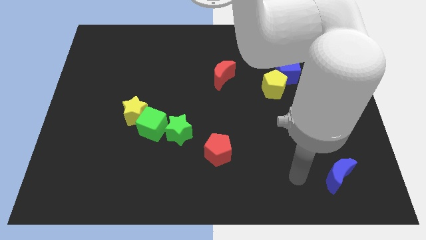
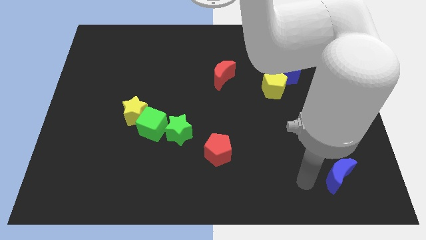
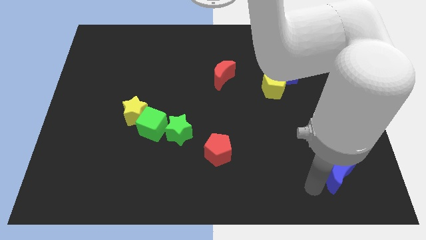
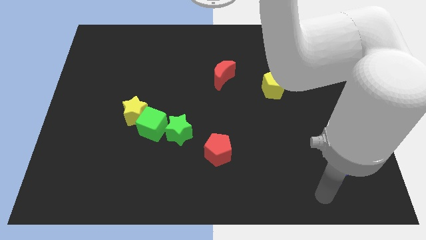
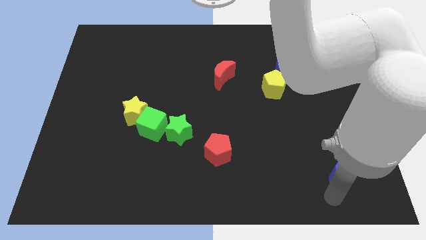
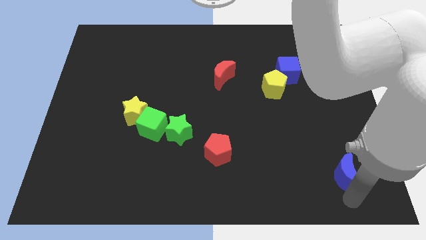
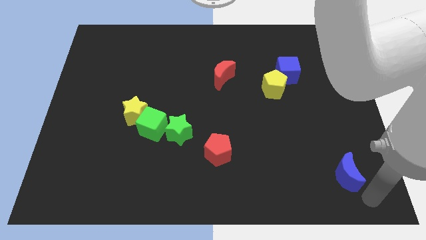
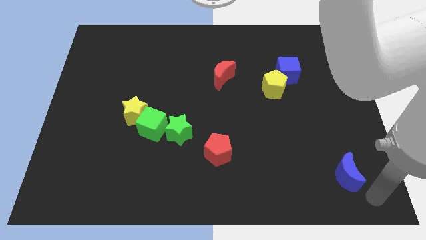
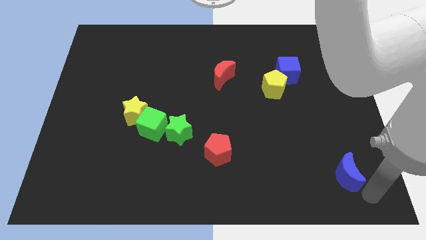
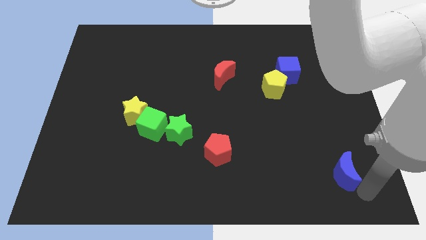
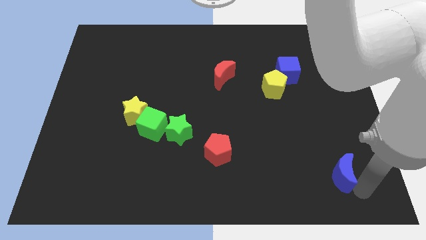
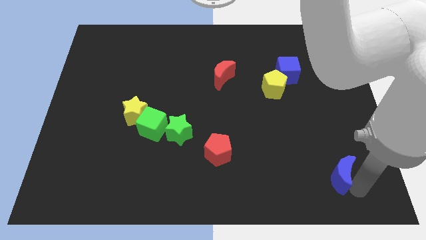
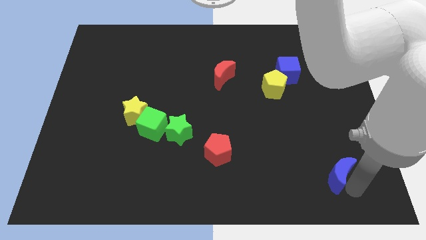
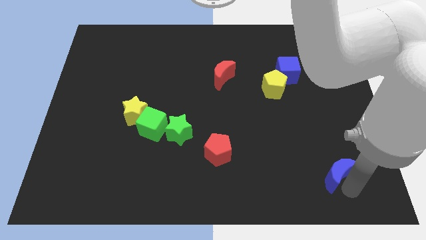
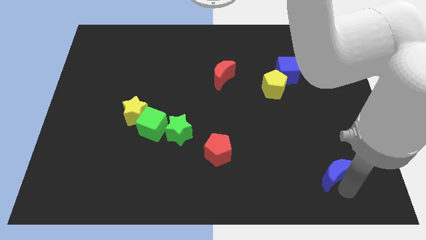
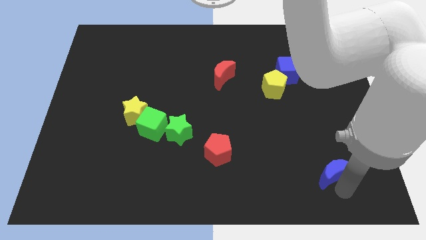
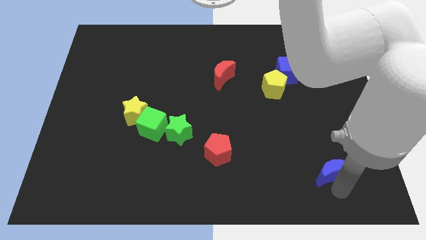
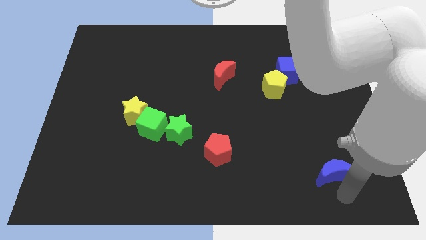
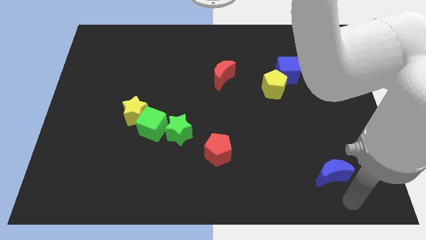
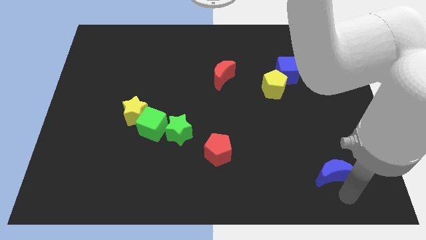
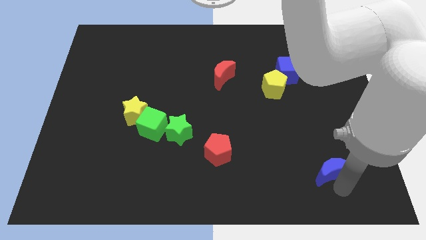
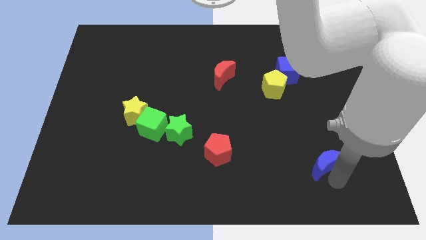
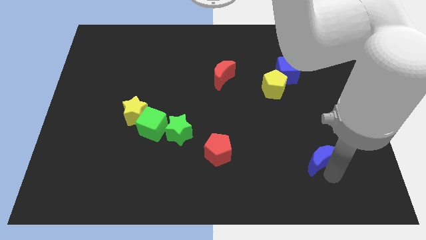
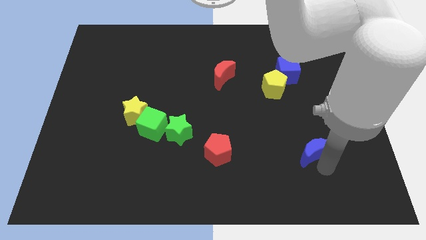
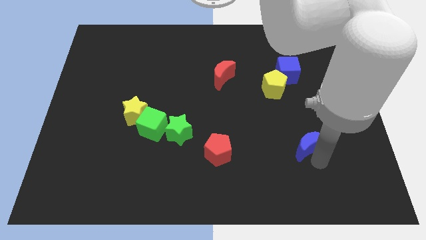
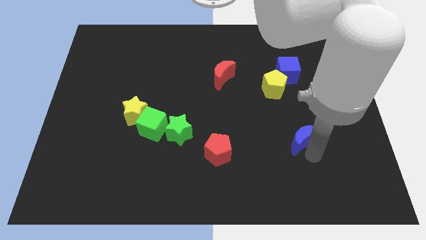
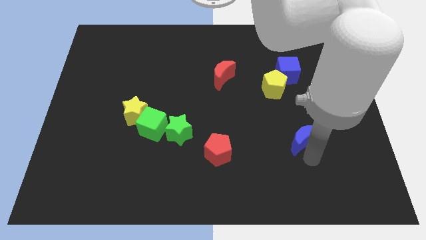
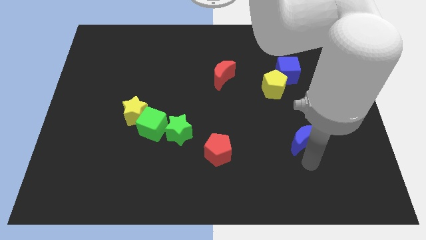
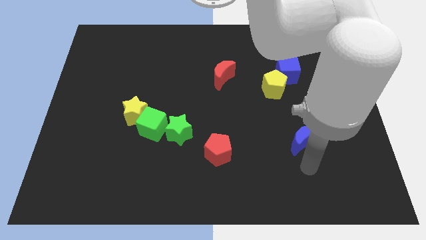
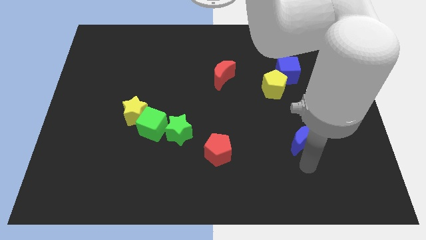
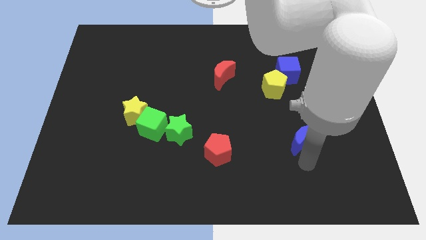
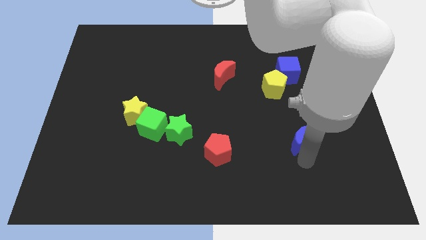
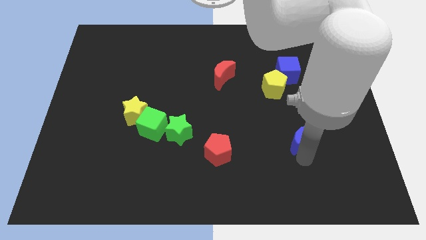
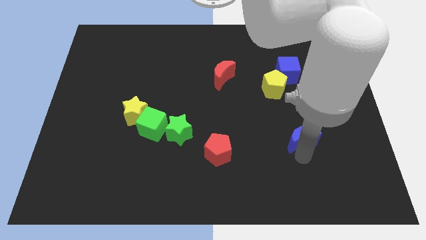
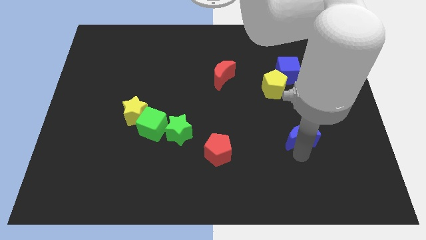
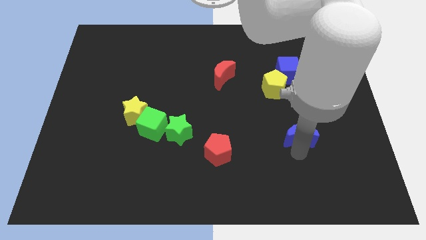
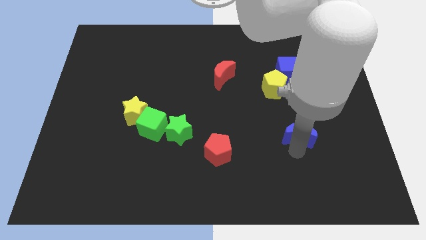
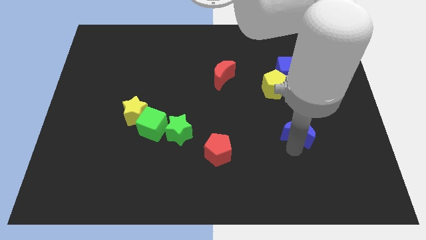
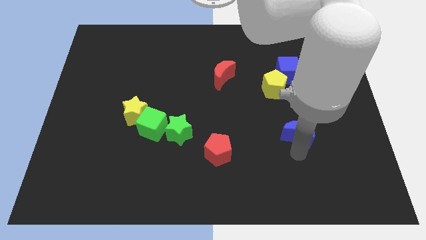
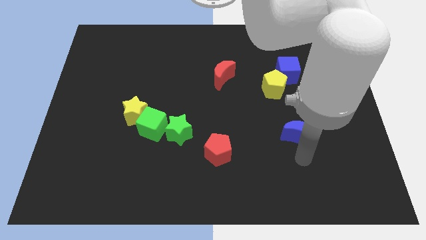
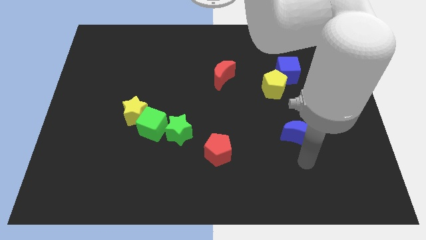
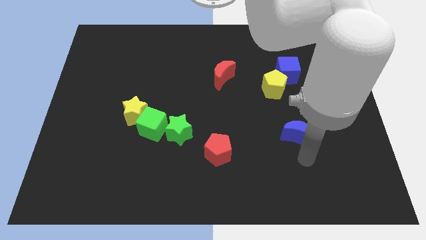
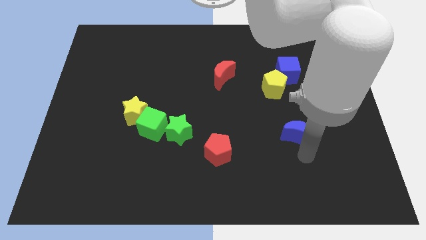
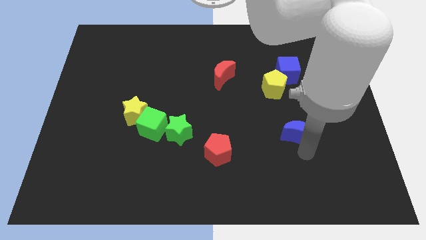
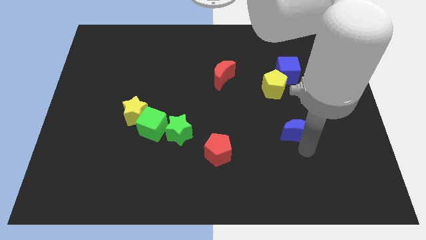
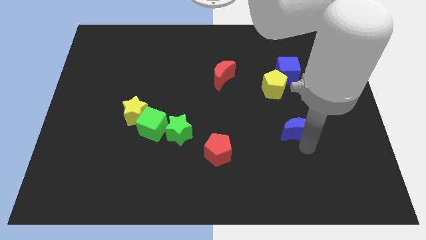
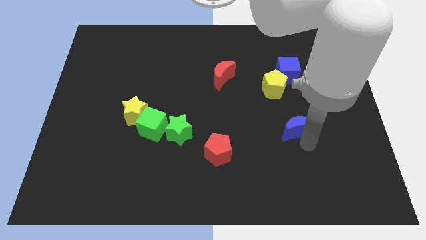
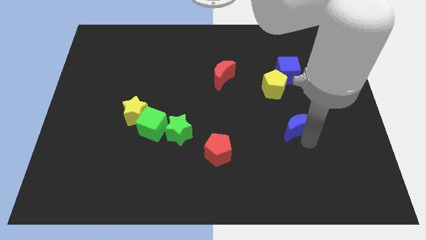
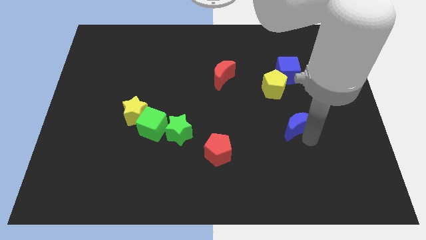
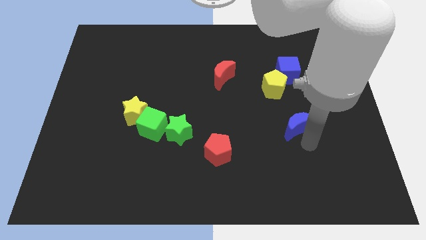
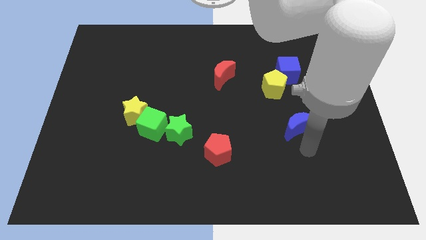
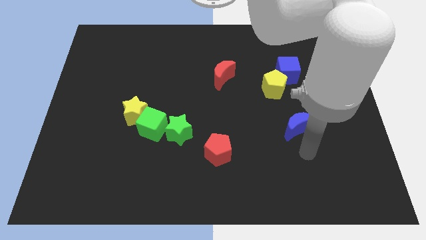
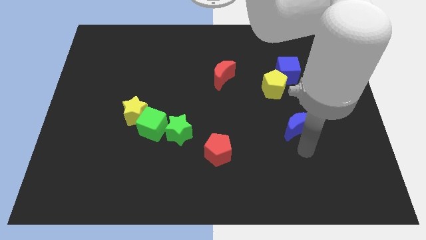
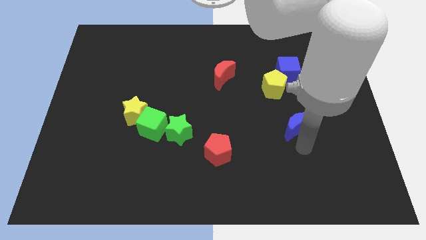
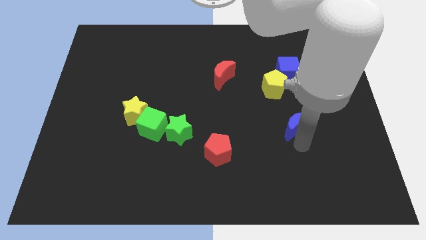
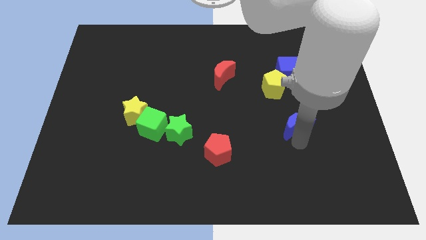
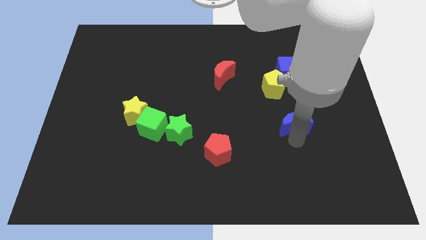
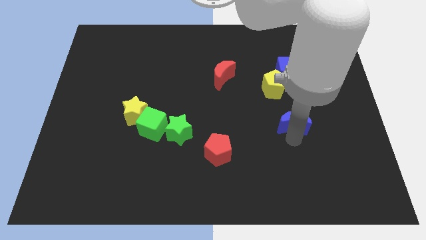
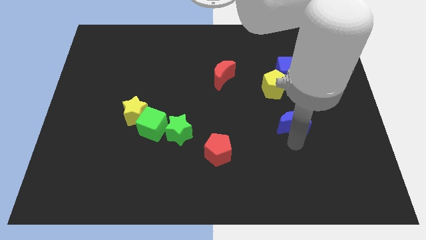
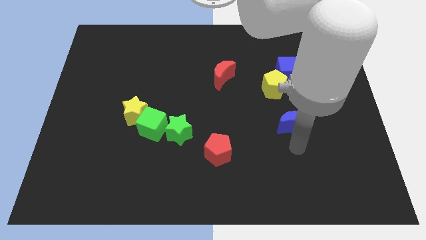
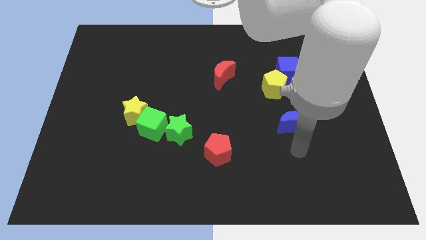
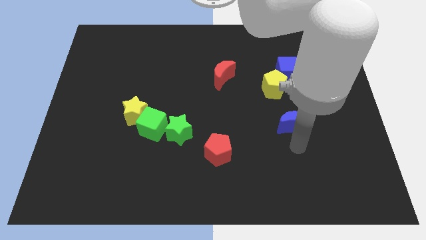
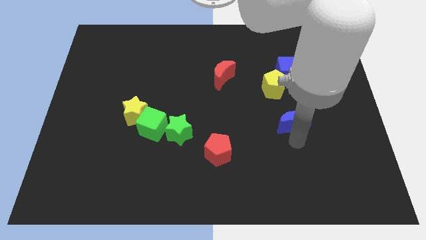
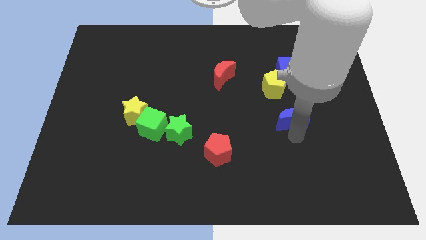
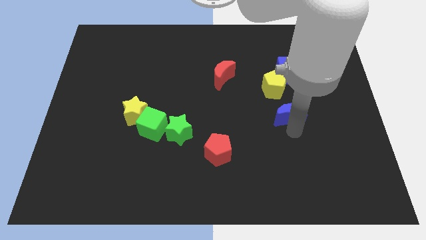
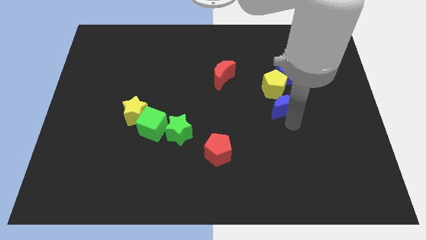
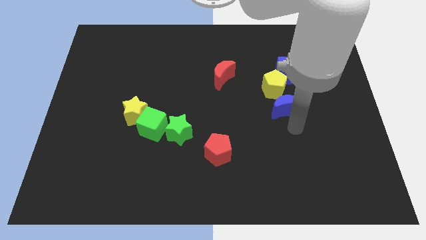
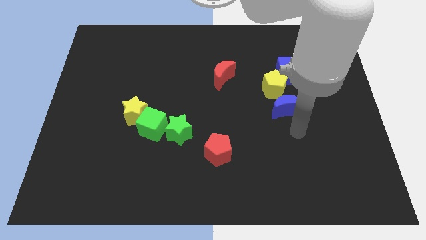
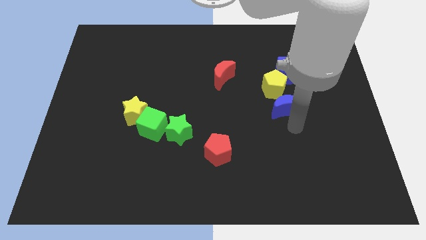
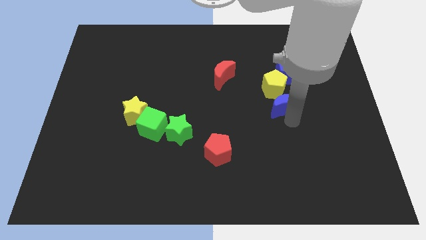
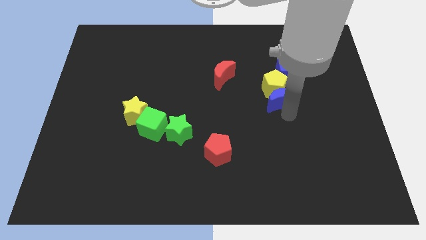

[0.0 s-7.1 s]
slide the blue moon to the yellow pentagon
